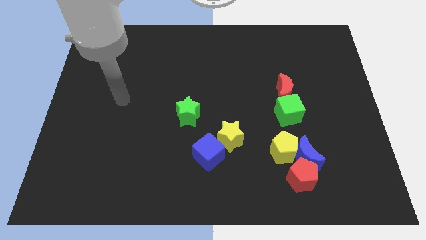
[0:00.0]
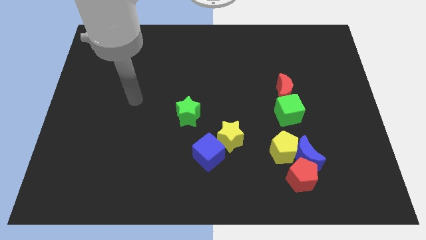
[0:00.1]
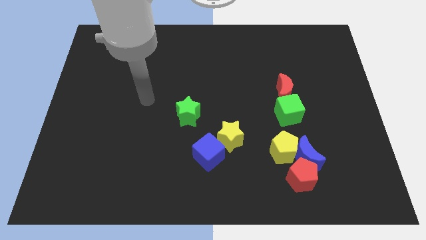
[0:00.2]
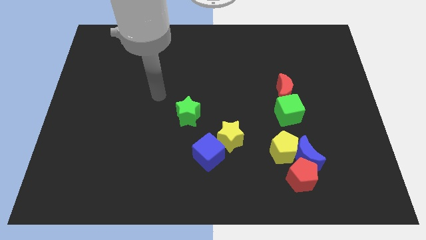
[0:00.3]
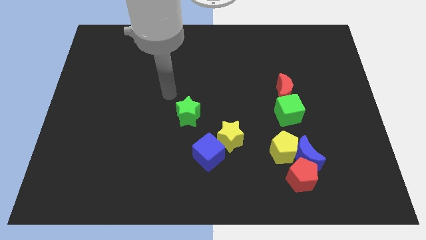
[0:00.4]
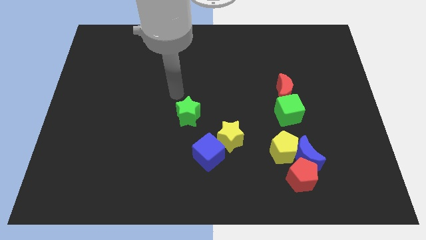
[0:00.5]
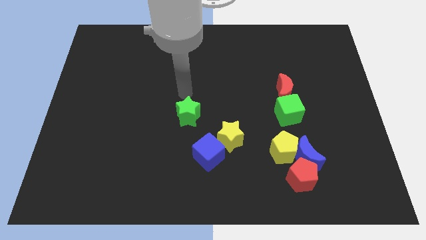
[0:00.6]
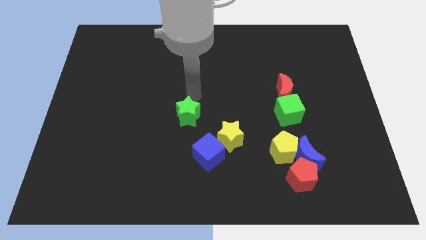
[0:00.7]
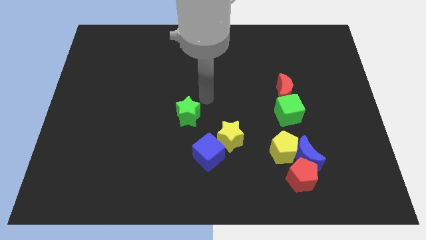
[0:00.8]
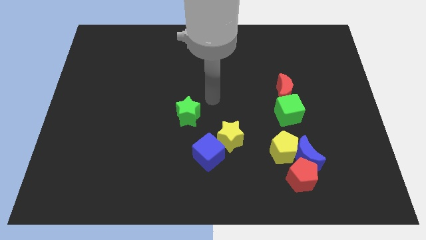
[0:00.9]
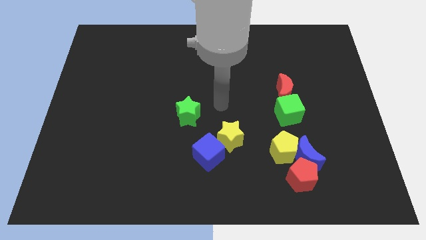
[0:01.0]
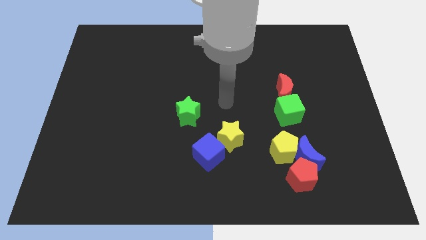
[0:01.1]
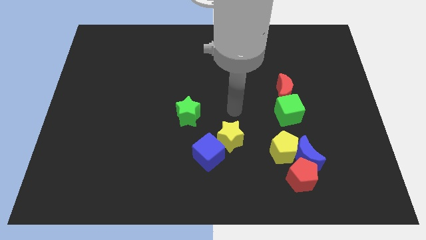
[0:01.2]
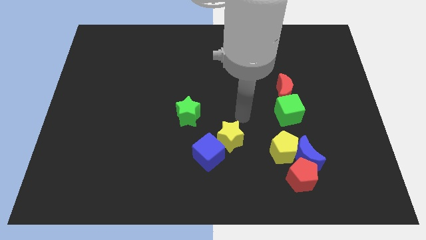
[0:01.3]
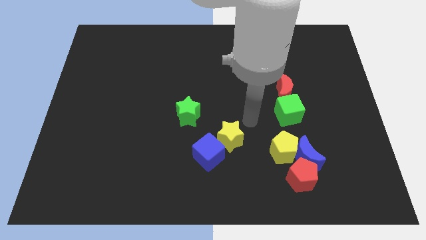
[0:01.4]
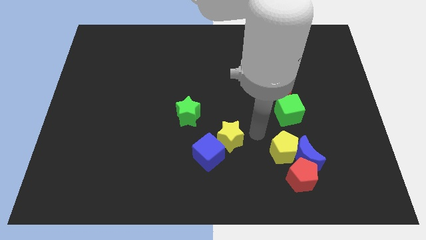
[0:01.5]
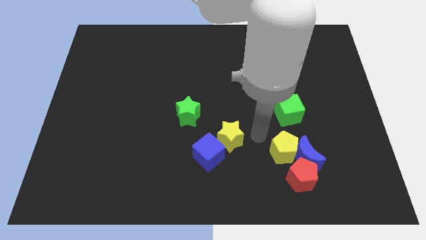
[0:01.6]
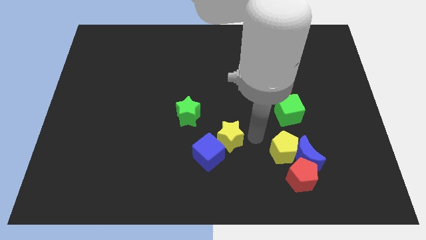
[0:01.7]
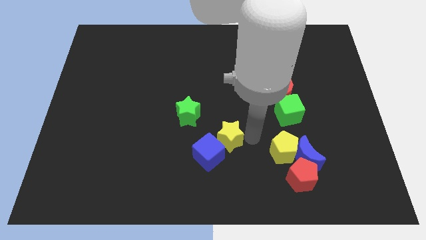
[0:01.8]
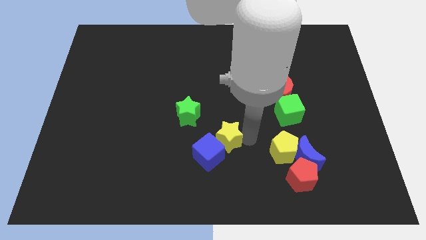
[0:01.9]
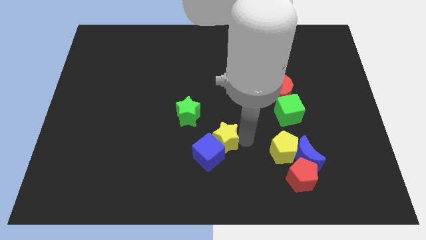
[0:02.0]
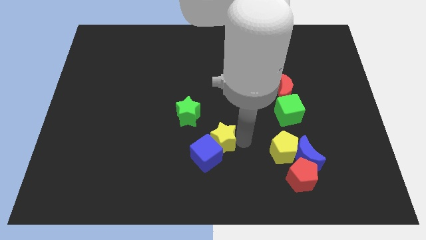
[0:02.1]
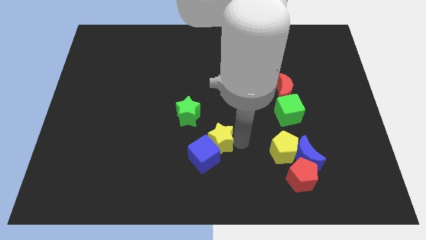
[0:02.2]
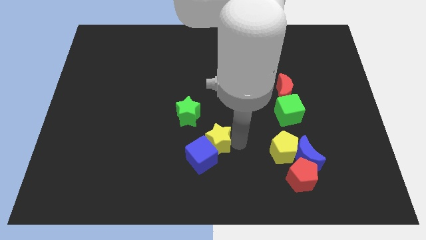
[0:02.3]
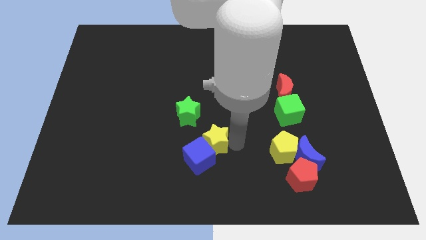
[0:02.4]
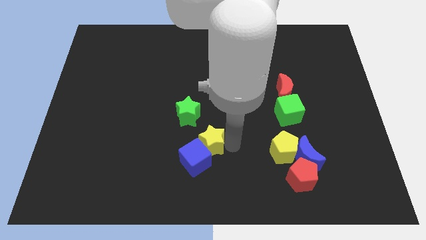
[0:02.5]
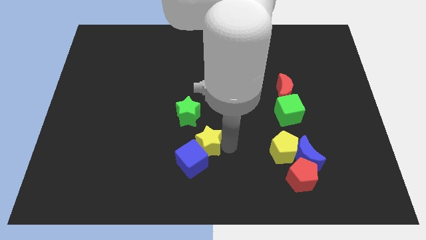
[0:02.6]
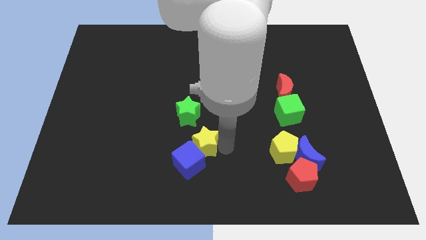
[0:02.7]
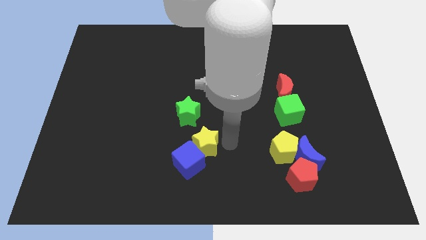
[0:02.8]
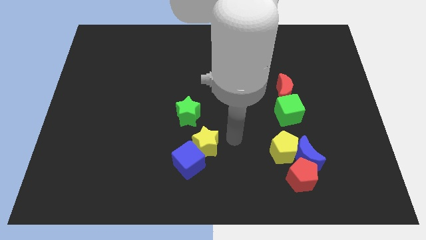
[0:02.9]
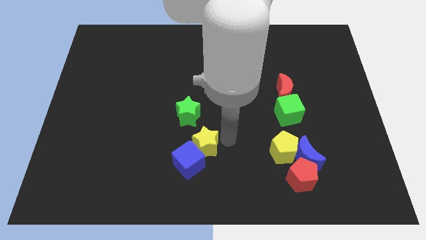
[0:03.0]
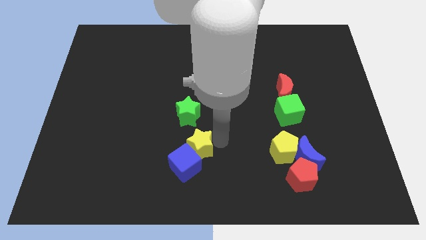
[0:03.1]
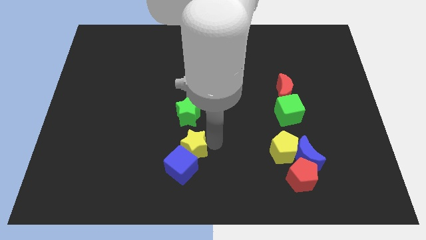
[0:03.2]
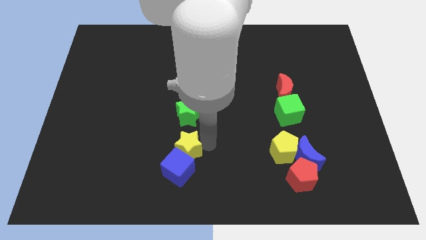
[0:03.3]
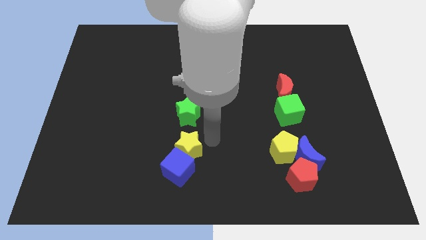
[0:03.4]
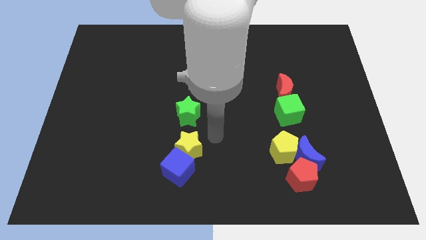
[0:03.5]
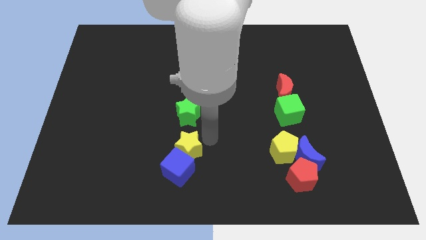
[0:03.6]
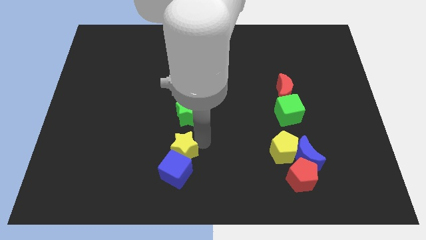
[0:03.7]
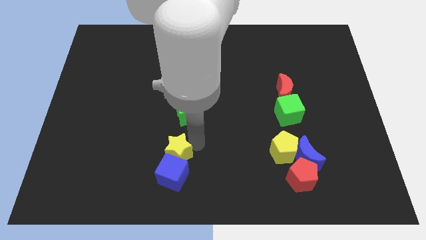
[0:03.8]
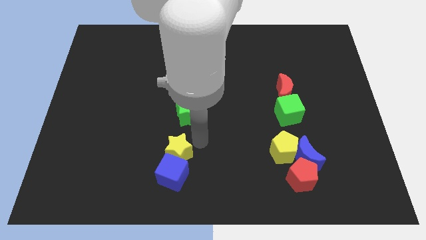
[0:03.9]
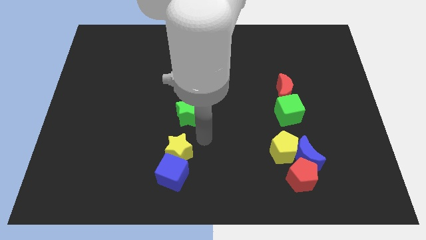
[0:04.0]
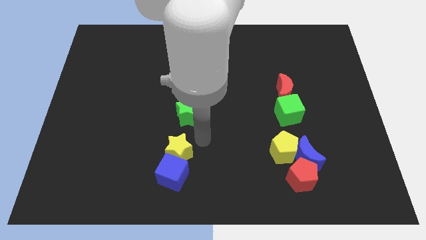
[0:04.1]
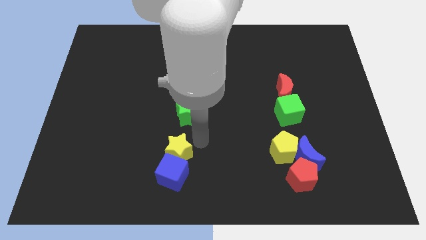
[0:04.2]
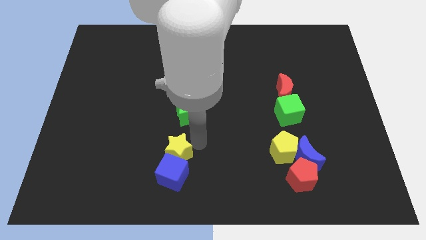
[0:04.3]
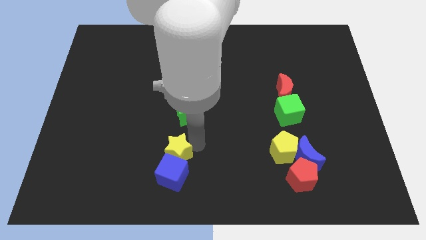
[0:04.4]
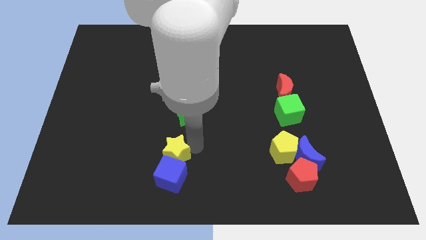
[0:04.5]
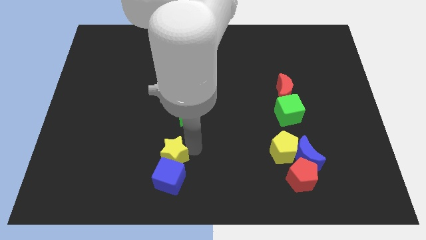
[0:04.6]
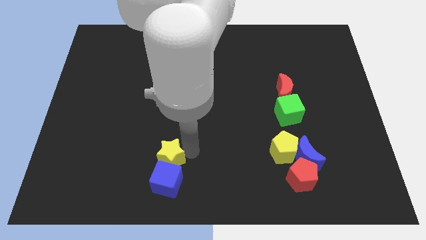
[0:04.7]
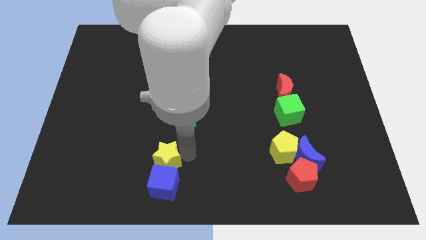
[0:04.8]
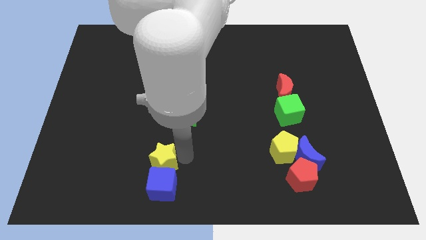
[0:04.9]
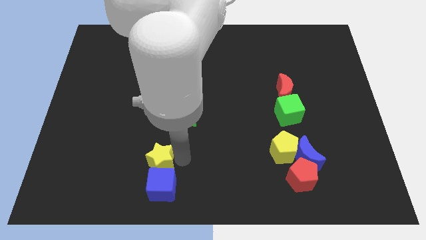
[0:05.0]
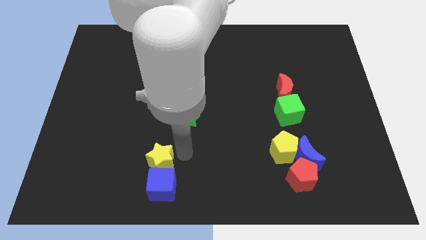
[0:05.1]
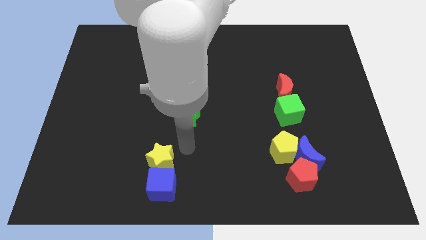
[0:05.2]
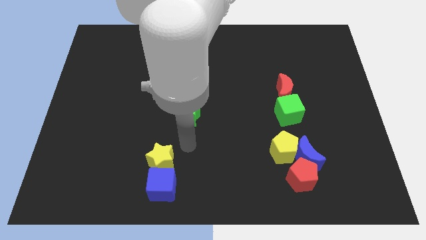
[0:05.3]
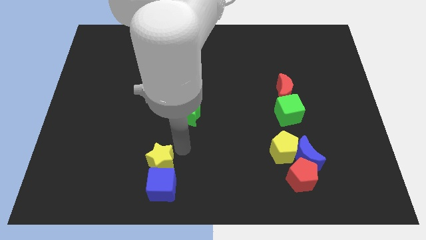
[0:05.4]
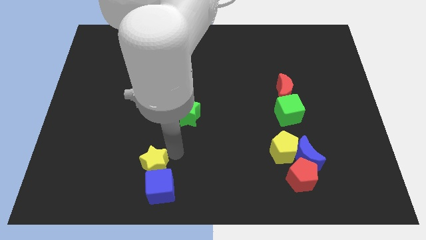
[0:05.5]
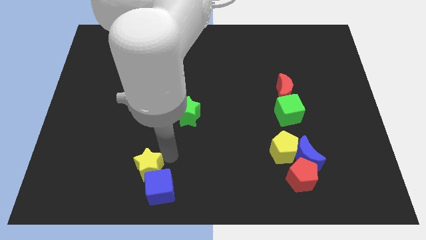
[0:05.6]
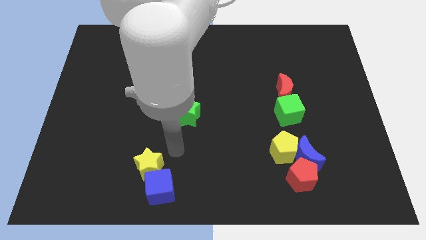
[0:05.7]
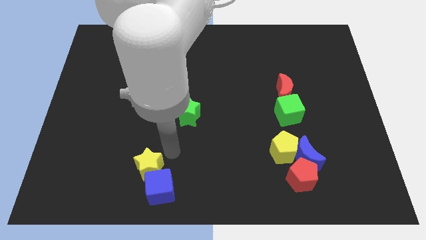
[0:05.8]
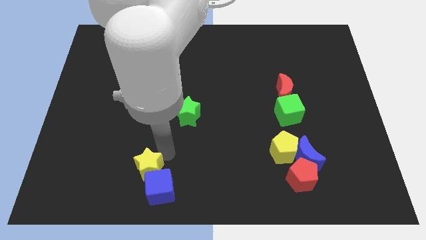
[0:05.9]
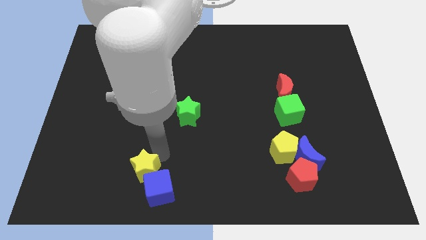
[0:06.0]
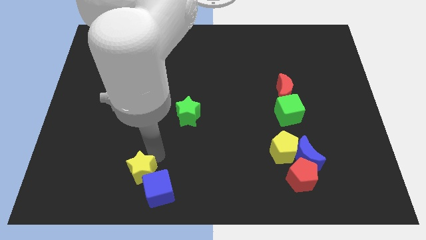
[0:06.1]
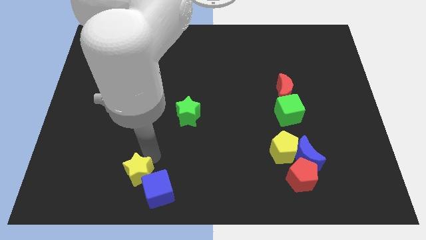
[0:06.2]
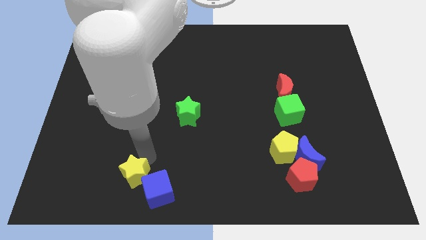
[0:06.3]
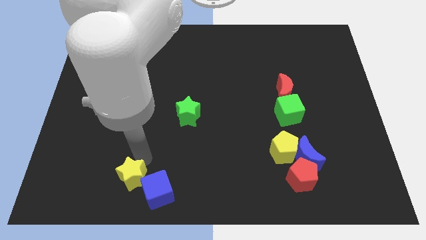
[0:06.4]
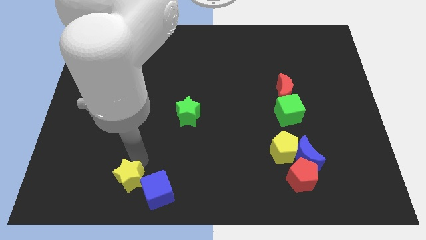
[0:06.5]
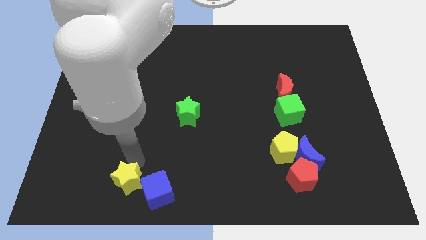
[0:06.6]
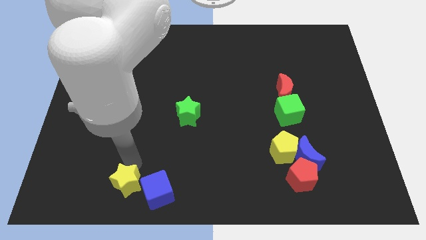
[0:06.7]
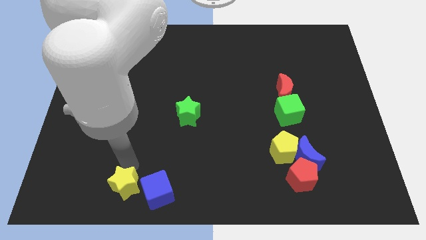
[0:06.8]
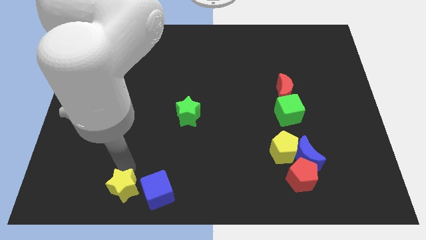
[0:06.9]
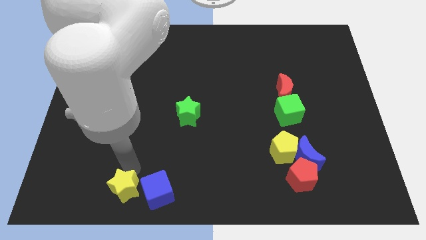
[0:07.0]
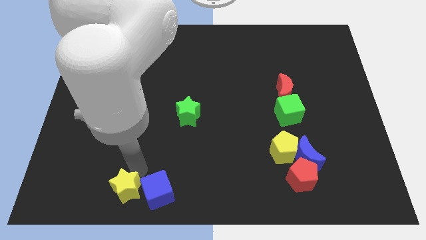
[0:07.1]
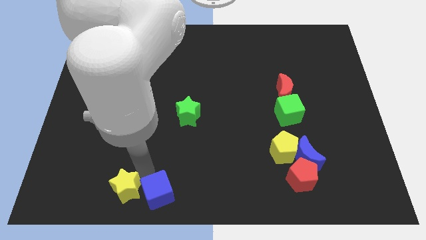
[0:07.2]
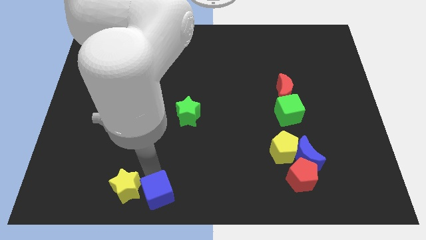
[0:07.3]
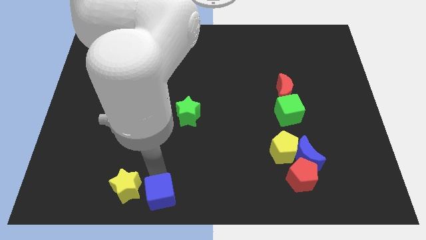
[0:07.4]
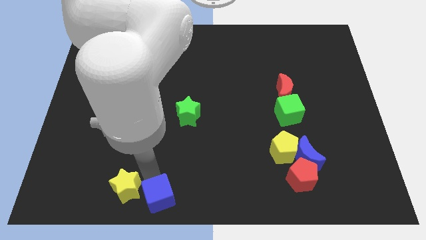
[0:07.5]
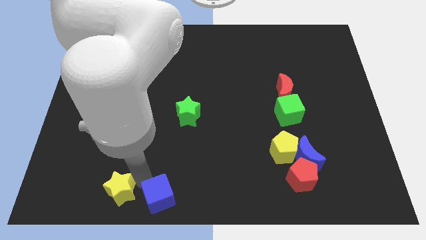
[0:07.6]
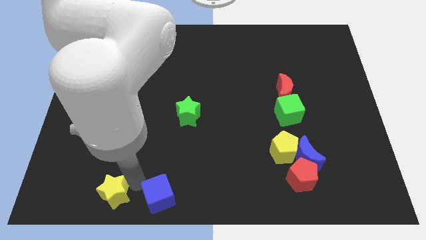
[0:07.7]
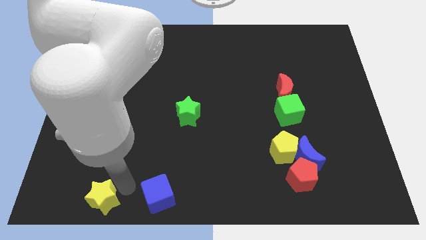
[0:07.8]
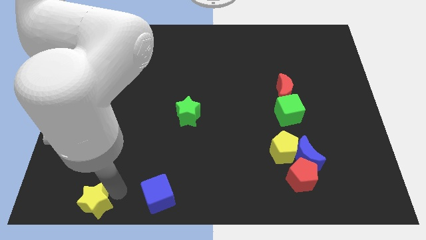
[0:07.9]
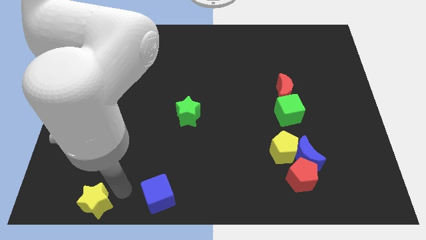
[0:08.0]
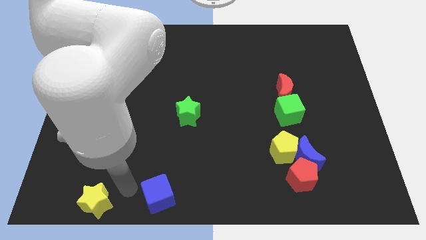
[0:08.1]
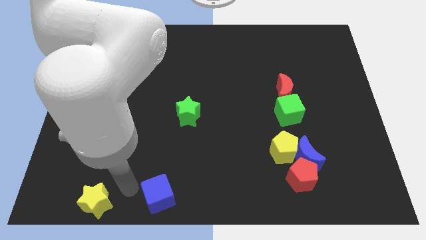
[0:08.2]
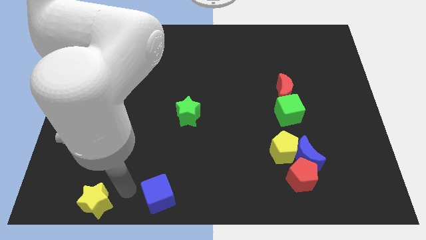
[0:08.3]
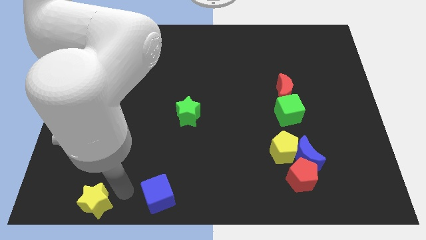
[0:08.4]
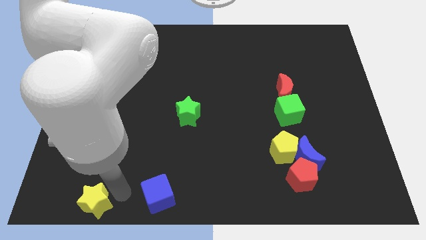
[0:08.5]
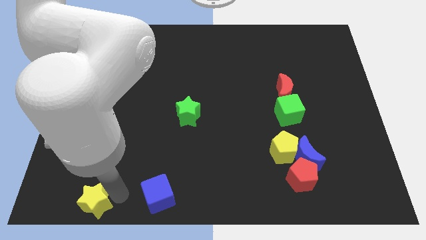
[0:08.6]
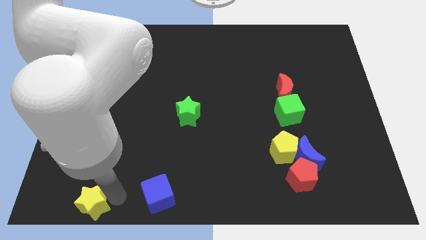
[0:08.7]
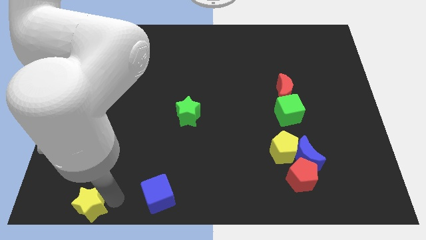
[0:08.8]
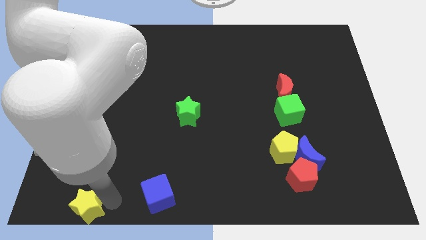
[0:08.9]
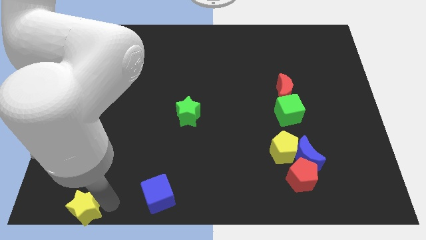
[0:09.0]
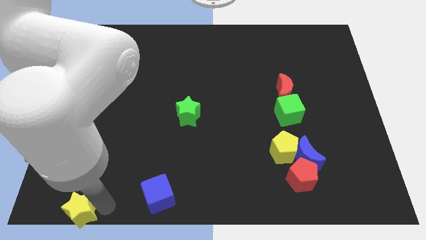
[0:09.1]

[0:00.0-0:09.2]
push the yellow star to the bottom left corner
